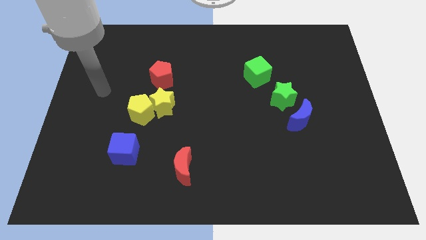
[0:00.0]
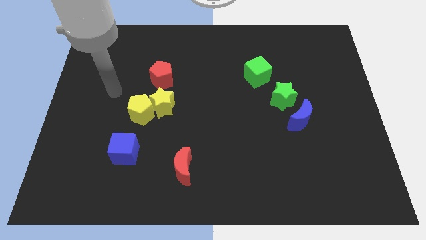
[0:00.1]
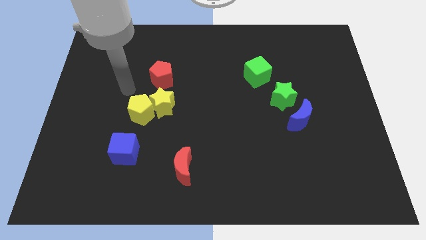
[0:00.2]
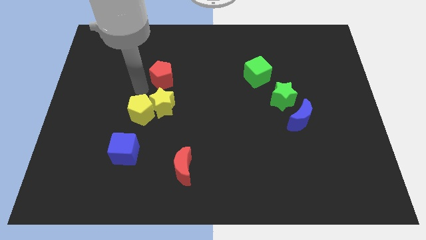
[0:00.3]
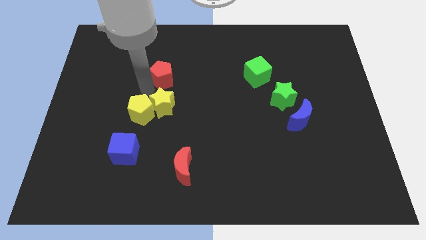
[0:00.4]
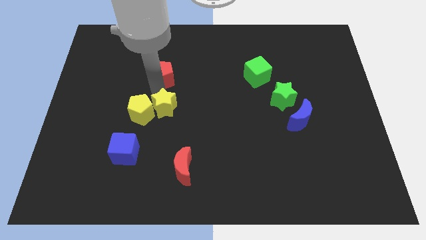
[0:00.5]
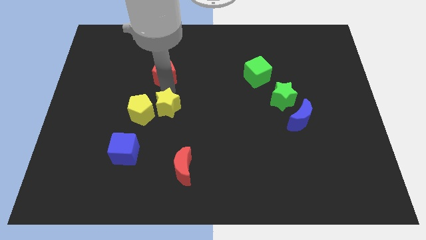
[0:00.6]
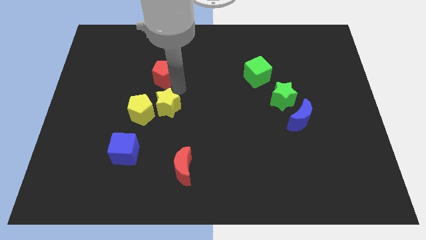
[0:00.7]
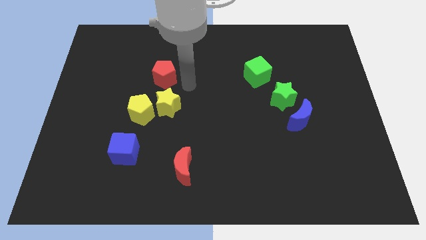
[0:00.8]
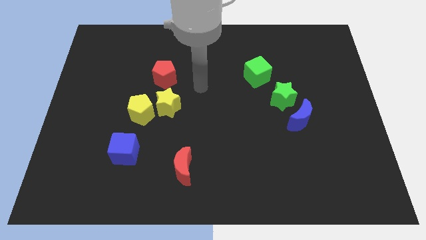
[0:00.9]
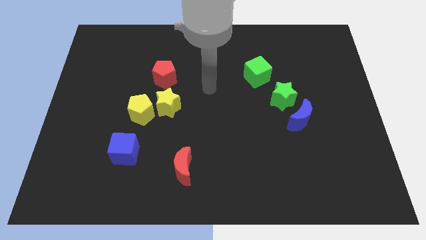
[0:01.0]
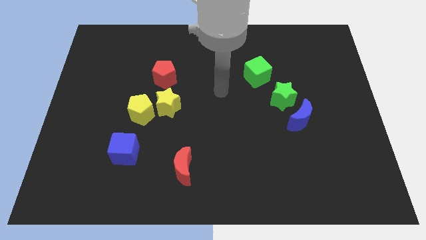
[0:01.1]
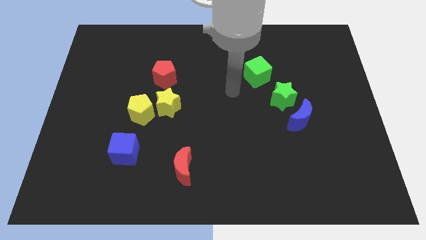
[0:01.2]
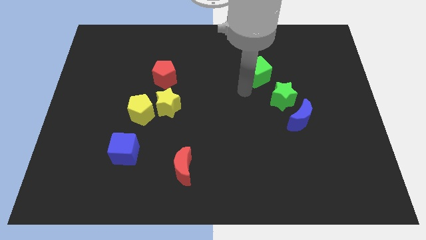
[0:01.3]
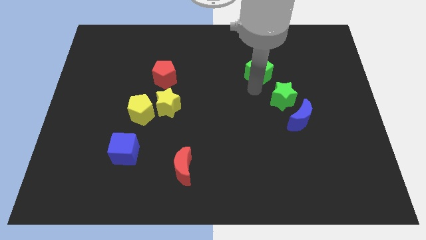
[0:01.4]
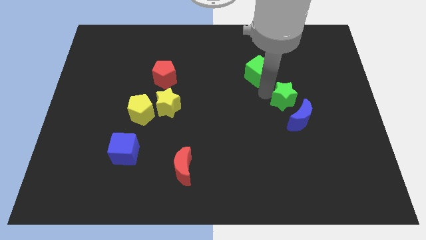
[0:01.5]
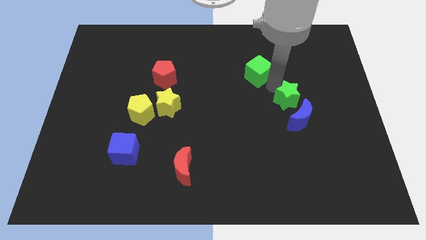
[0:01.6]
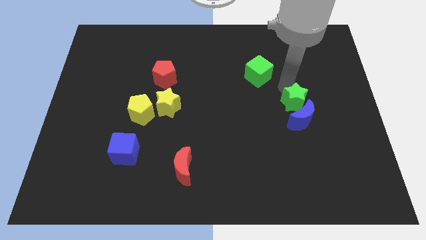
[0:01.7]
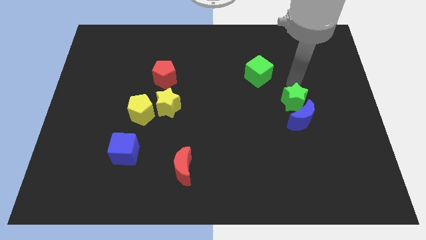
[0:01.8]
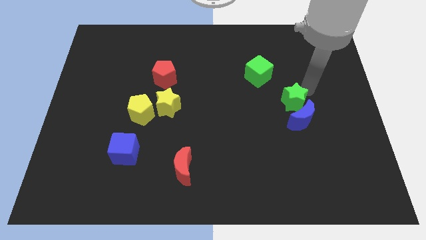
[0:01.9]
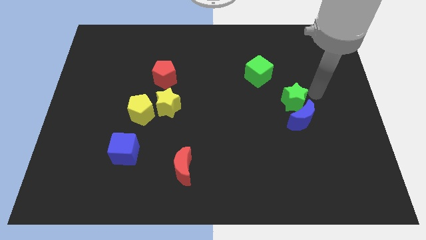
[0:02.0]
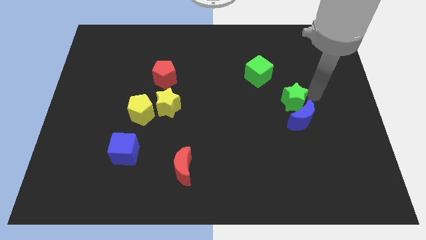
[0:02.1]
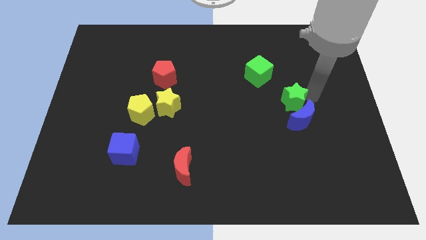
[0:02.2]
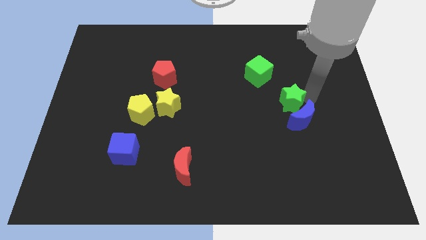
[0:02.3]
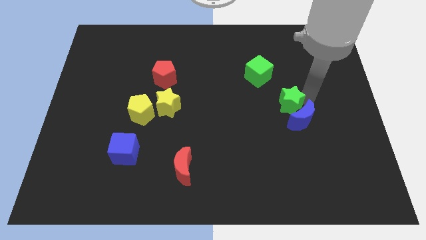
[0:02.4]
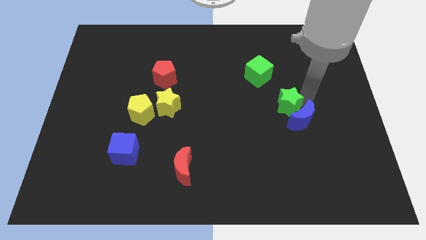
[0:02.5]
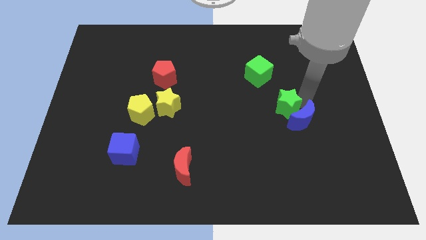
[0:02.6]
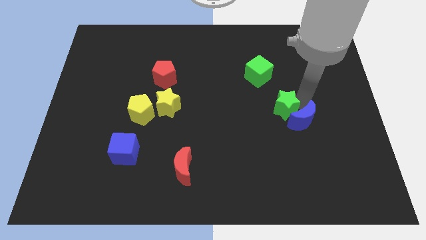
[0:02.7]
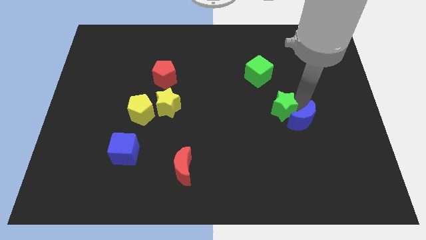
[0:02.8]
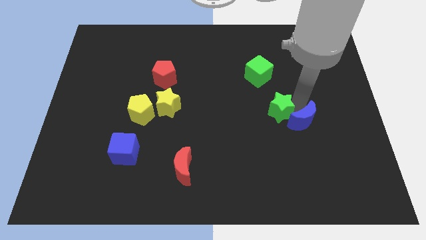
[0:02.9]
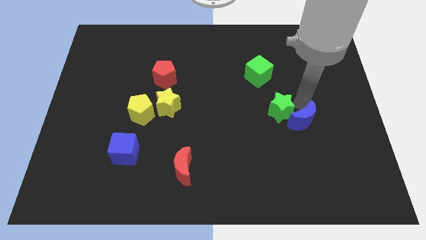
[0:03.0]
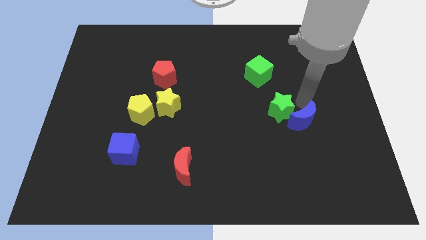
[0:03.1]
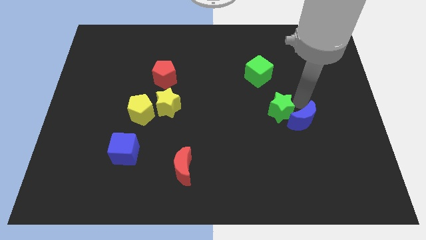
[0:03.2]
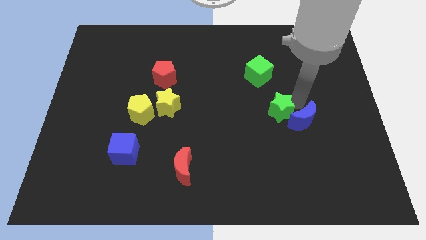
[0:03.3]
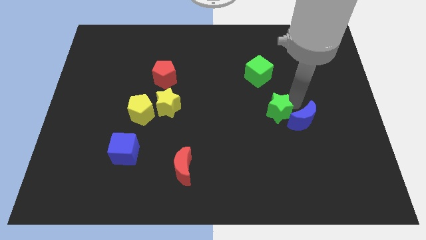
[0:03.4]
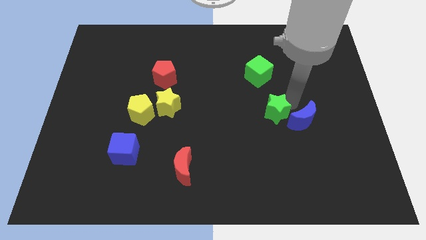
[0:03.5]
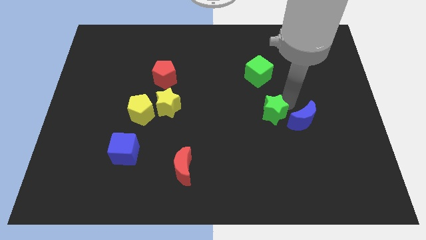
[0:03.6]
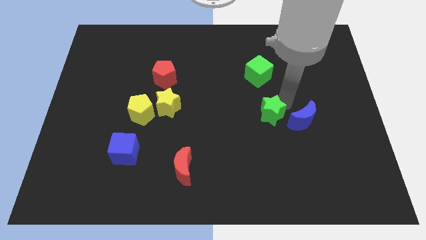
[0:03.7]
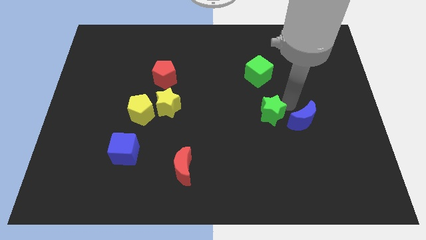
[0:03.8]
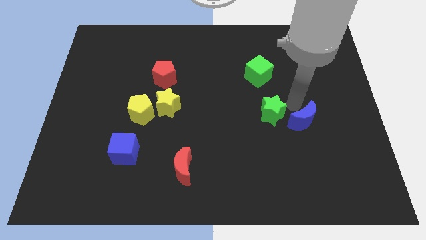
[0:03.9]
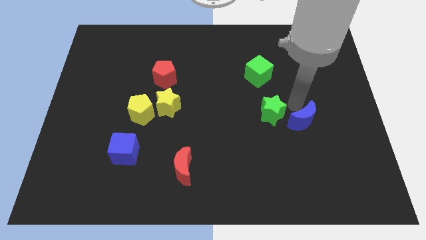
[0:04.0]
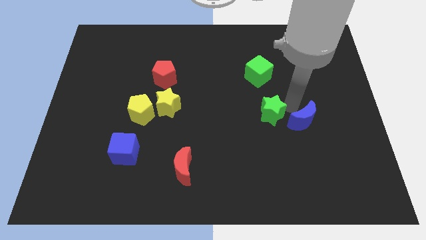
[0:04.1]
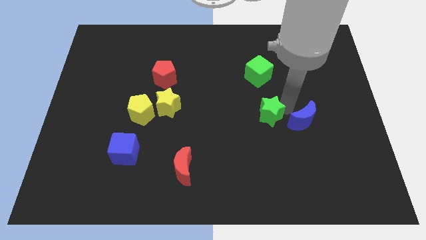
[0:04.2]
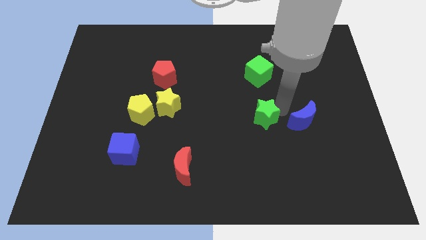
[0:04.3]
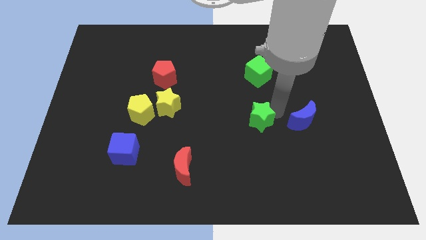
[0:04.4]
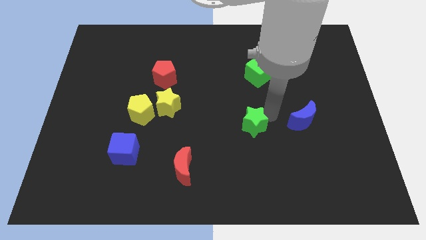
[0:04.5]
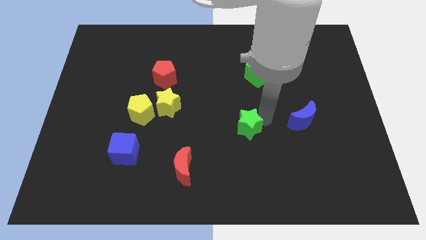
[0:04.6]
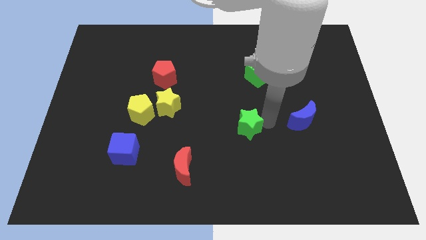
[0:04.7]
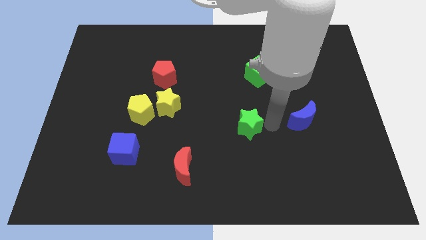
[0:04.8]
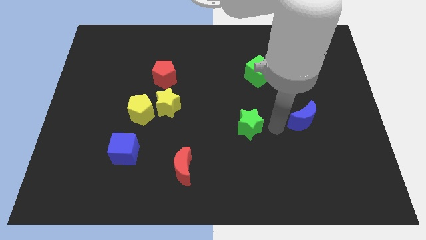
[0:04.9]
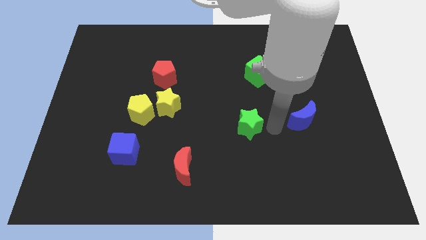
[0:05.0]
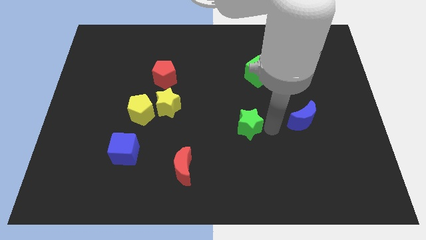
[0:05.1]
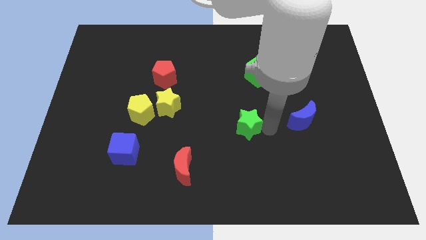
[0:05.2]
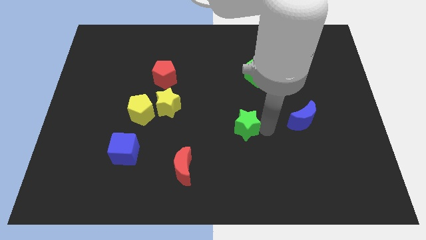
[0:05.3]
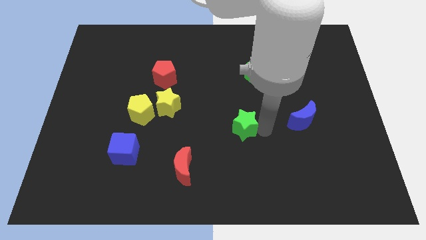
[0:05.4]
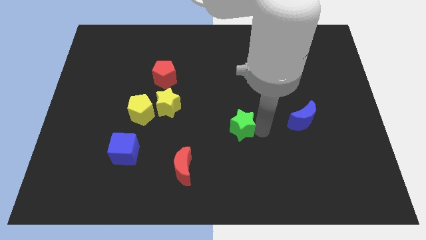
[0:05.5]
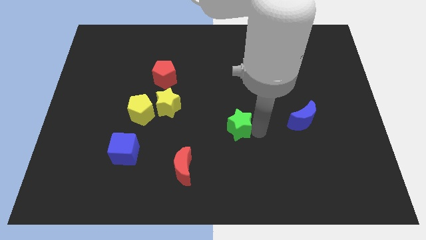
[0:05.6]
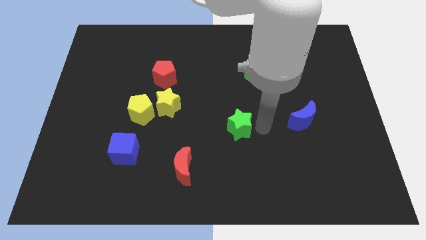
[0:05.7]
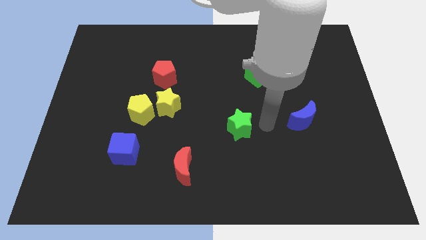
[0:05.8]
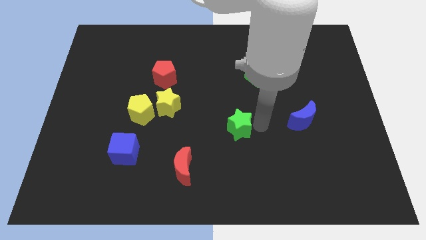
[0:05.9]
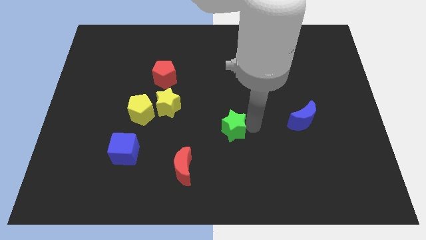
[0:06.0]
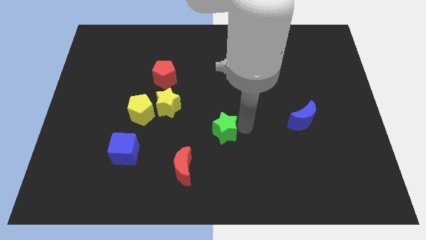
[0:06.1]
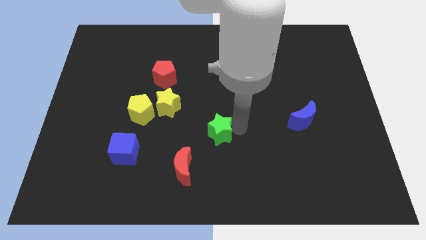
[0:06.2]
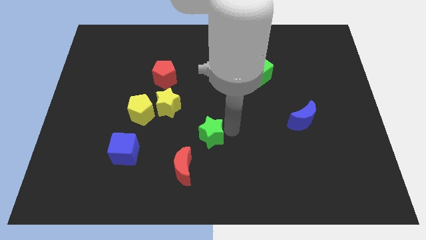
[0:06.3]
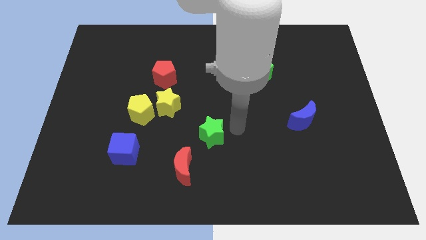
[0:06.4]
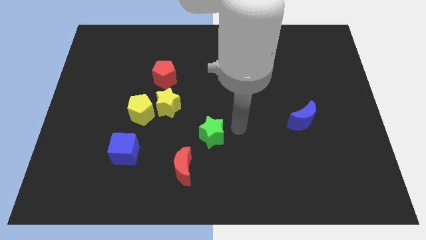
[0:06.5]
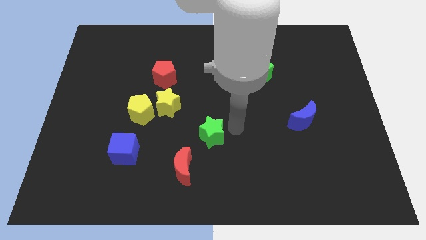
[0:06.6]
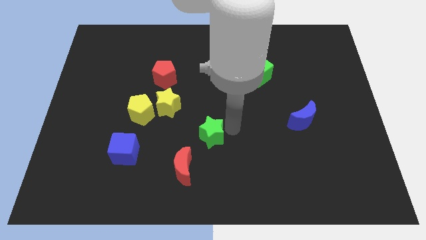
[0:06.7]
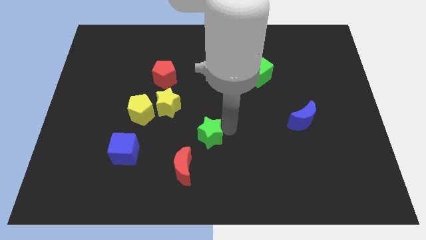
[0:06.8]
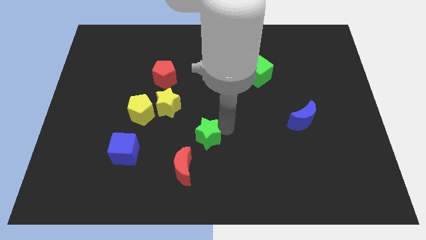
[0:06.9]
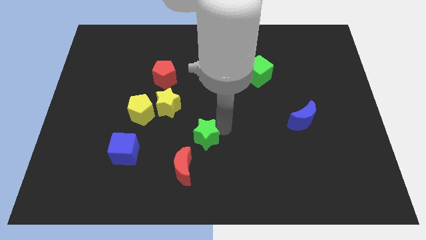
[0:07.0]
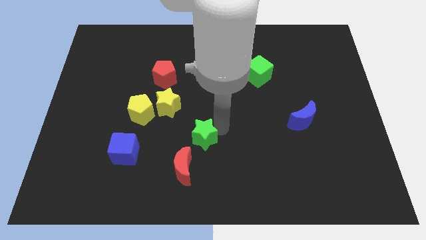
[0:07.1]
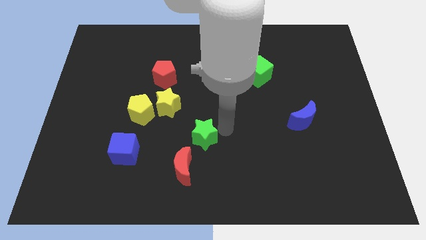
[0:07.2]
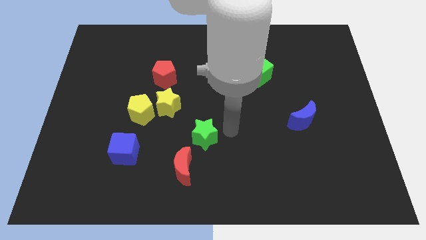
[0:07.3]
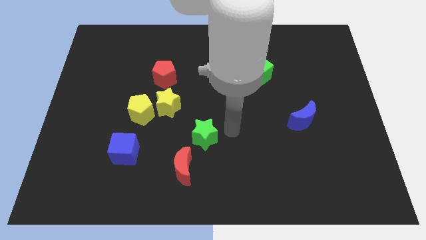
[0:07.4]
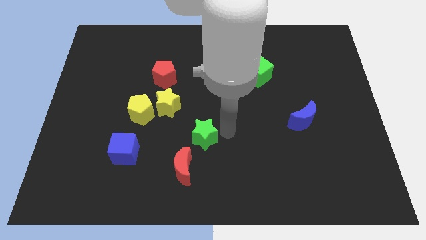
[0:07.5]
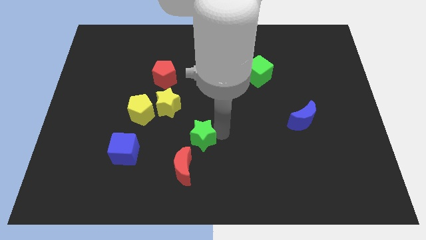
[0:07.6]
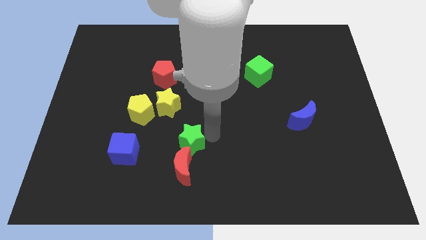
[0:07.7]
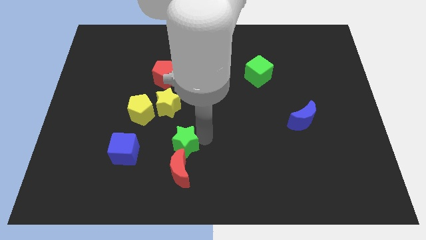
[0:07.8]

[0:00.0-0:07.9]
put the green star to the bottom side of the yellow star
